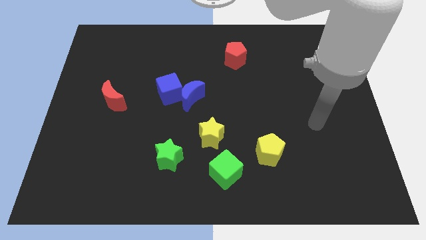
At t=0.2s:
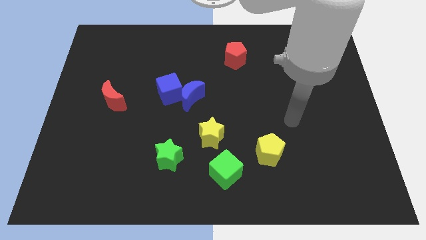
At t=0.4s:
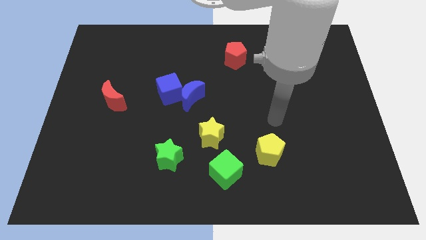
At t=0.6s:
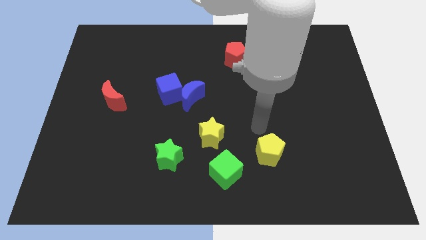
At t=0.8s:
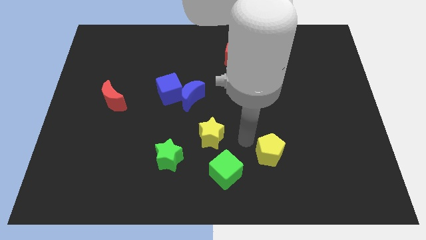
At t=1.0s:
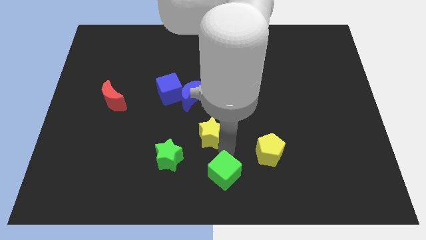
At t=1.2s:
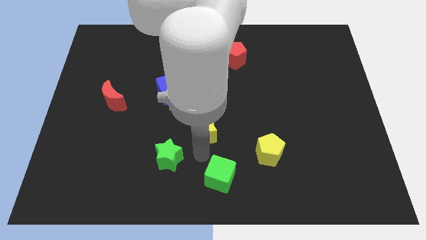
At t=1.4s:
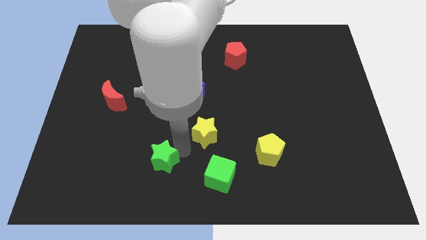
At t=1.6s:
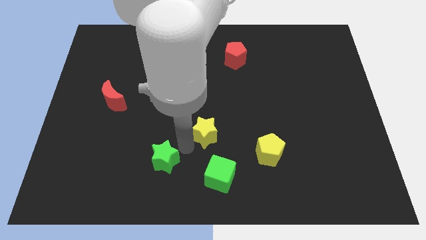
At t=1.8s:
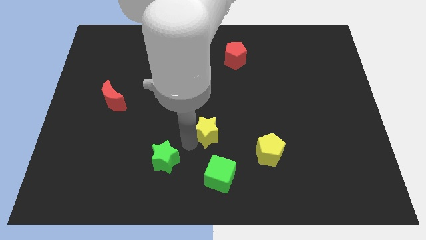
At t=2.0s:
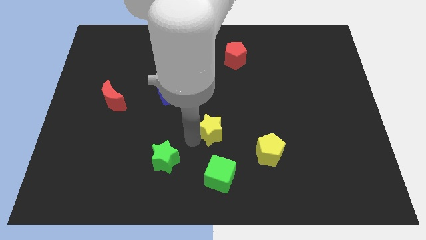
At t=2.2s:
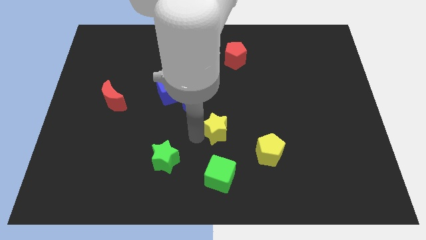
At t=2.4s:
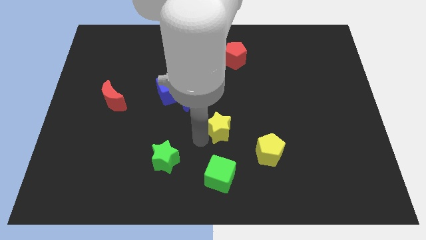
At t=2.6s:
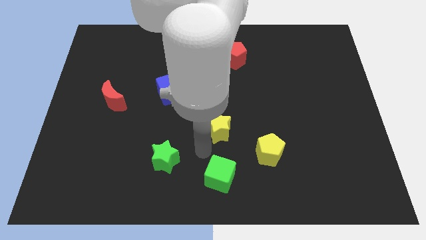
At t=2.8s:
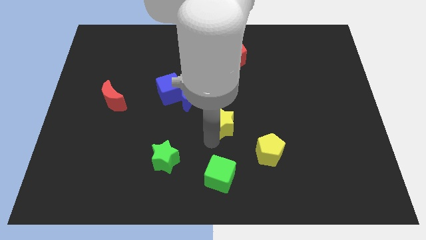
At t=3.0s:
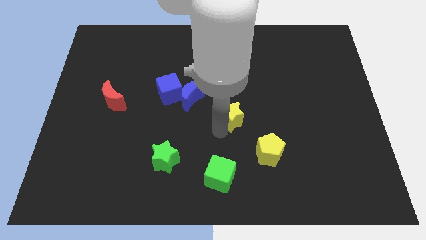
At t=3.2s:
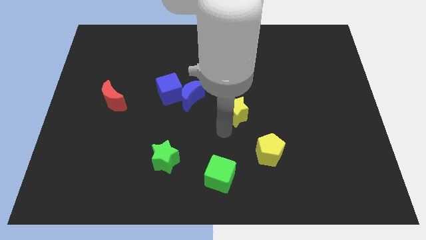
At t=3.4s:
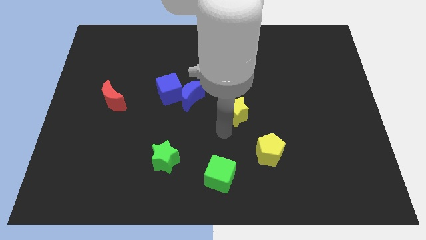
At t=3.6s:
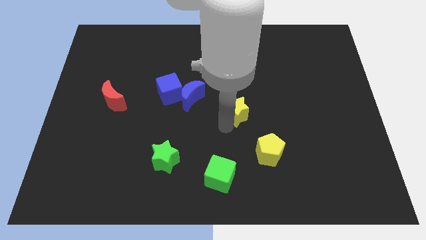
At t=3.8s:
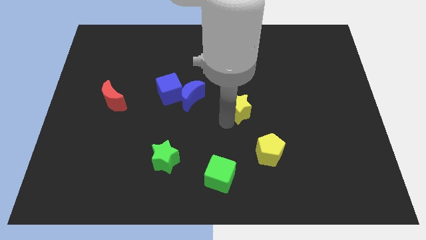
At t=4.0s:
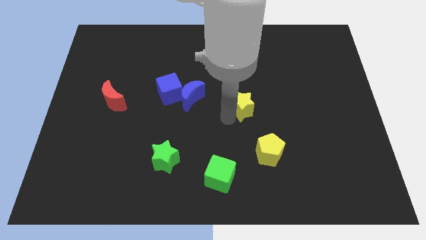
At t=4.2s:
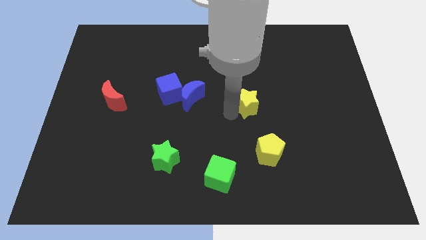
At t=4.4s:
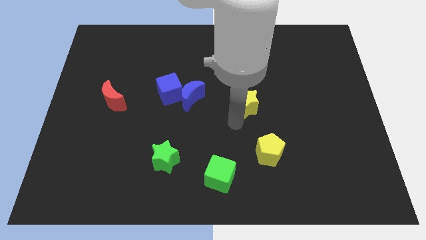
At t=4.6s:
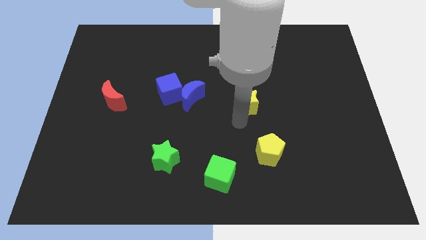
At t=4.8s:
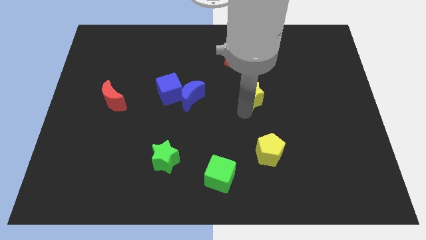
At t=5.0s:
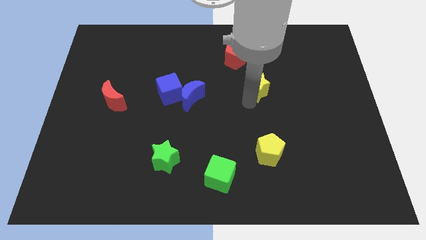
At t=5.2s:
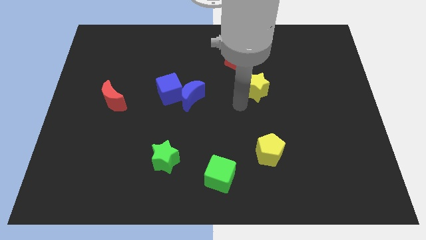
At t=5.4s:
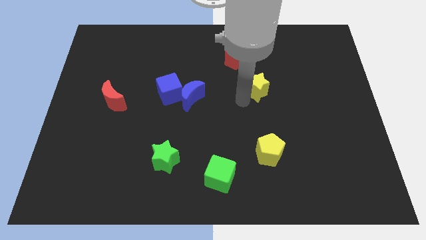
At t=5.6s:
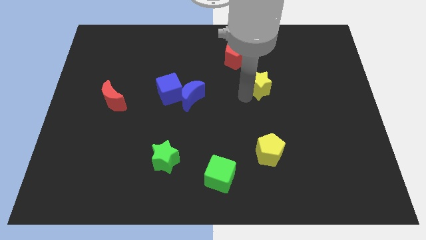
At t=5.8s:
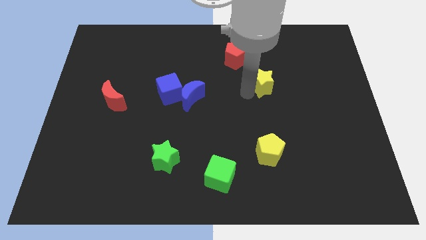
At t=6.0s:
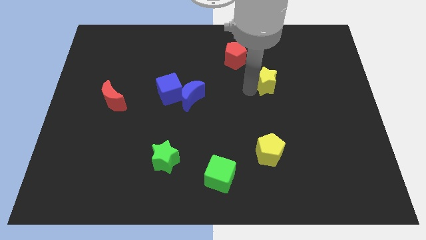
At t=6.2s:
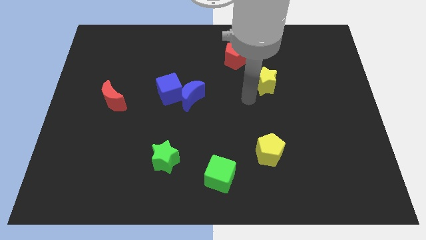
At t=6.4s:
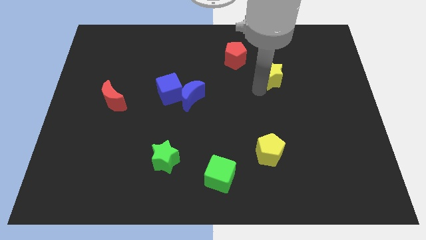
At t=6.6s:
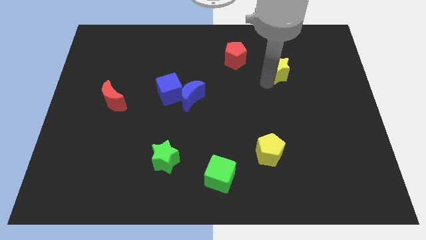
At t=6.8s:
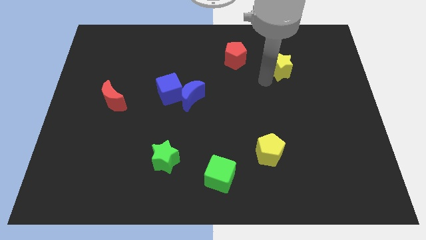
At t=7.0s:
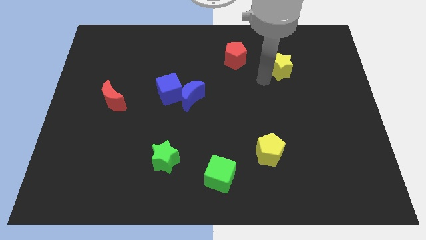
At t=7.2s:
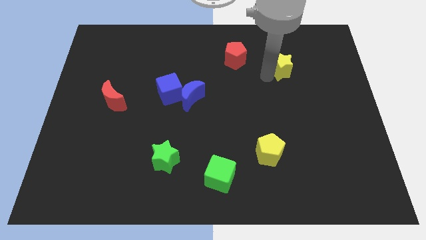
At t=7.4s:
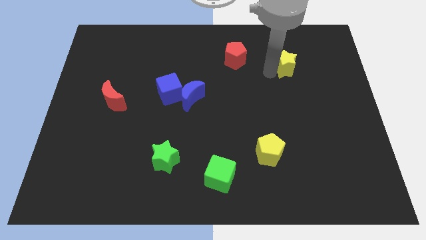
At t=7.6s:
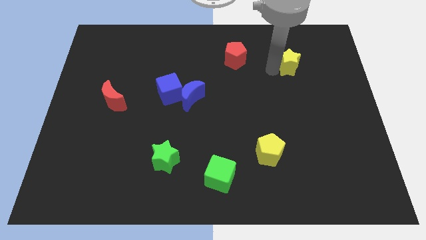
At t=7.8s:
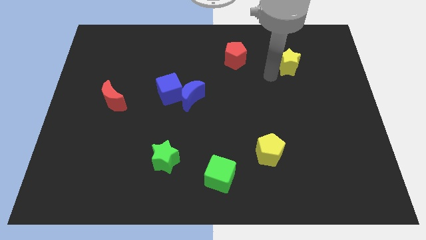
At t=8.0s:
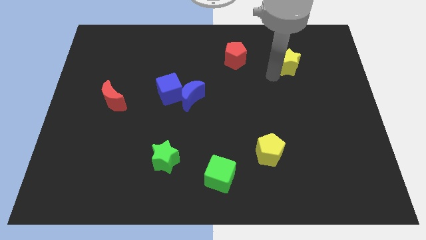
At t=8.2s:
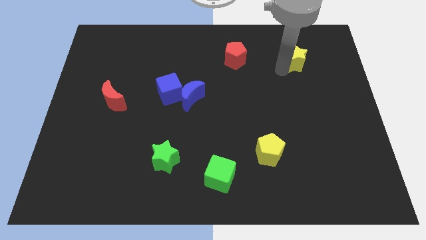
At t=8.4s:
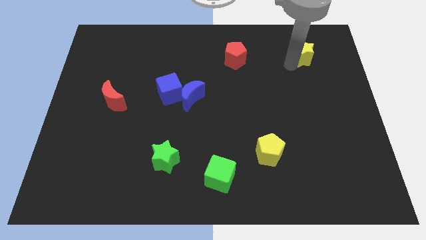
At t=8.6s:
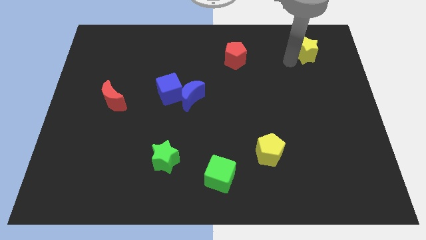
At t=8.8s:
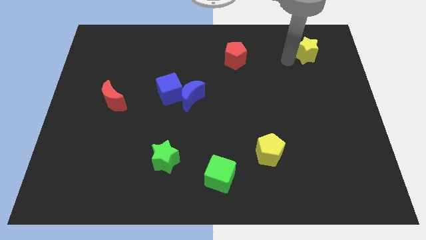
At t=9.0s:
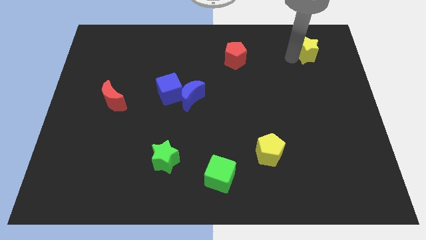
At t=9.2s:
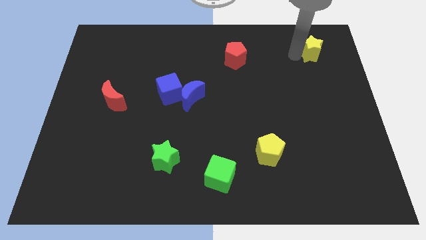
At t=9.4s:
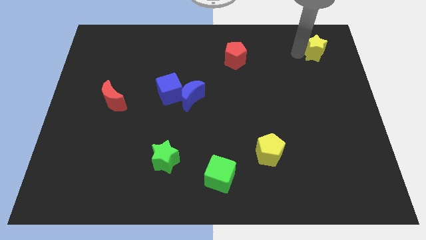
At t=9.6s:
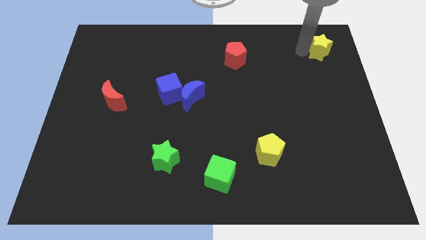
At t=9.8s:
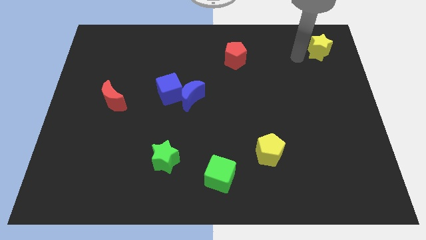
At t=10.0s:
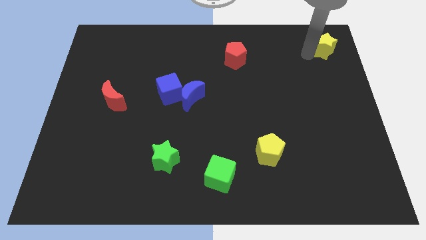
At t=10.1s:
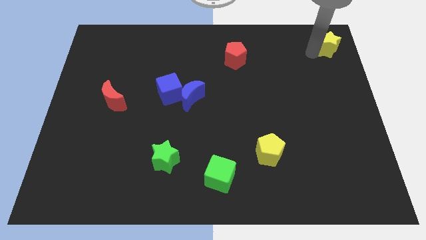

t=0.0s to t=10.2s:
move the yellow star to the top right of the board

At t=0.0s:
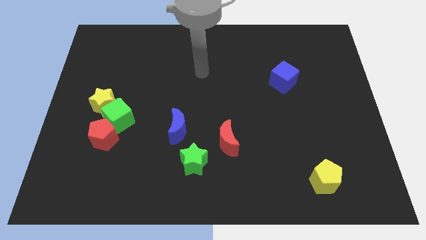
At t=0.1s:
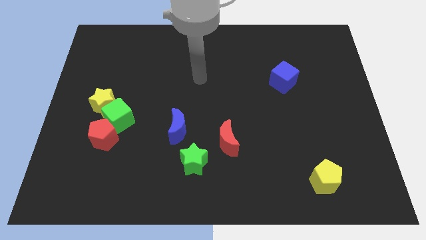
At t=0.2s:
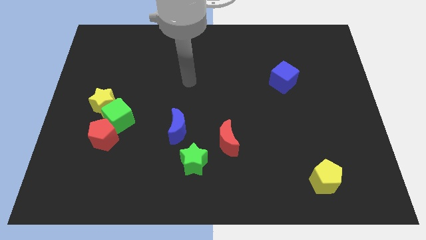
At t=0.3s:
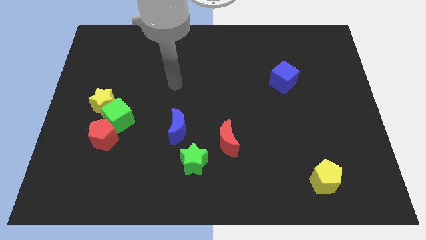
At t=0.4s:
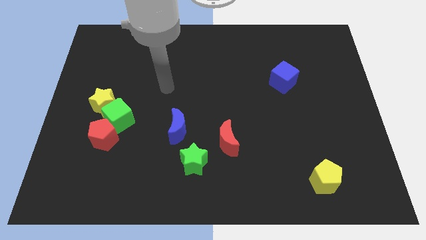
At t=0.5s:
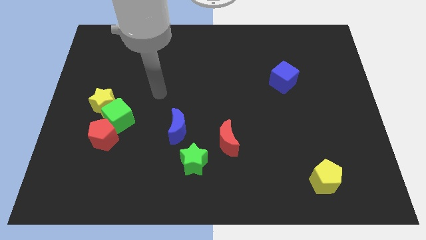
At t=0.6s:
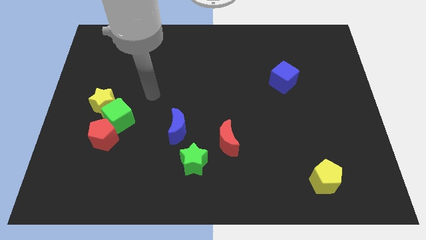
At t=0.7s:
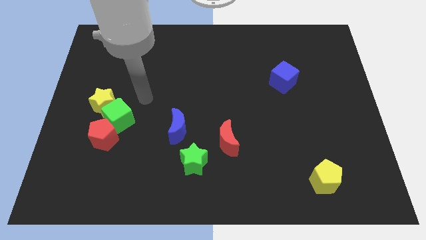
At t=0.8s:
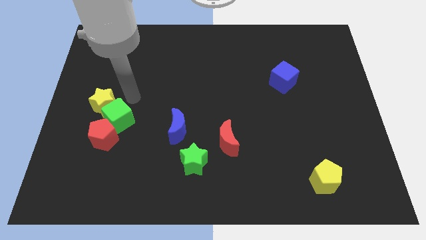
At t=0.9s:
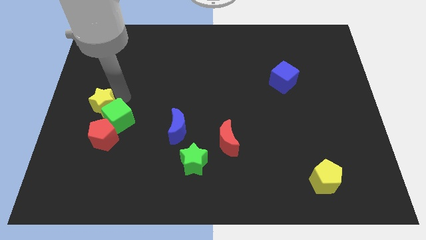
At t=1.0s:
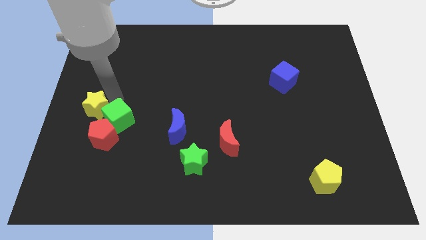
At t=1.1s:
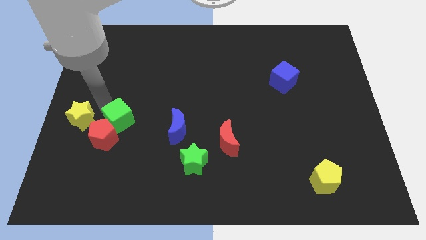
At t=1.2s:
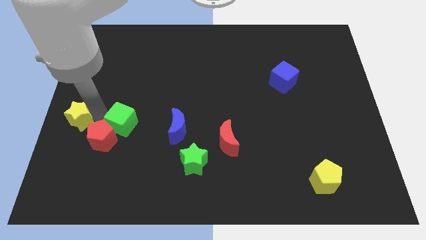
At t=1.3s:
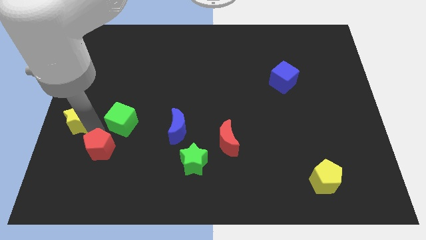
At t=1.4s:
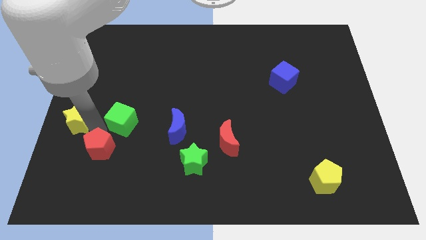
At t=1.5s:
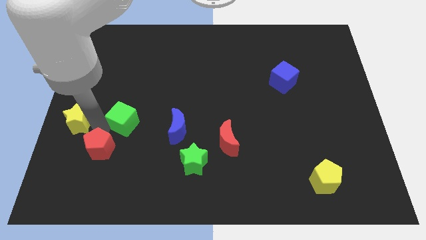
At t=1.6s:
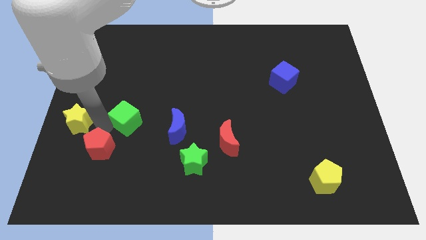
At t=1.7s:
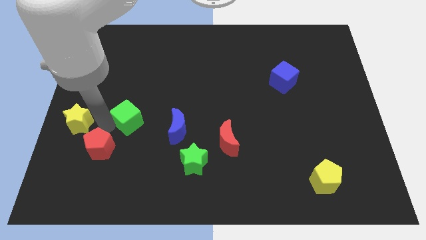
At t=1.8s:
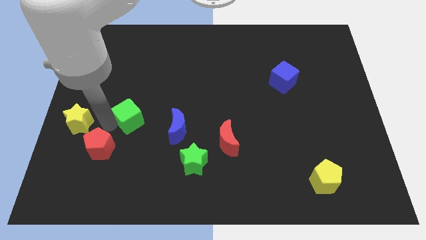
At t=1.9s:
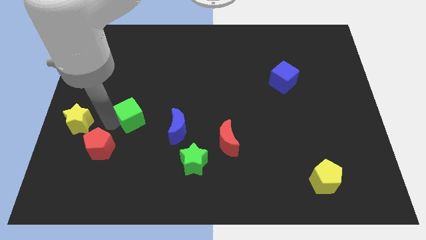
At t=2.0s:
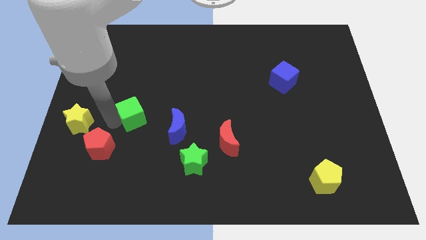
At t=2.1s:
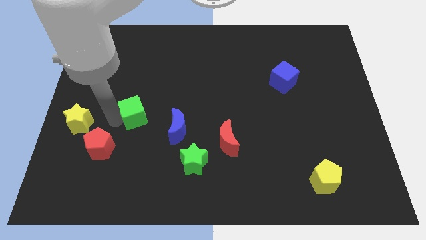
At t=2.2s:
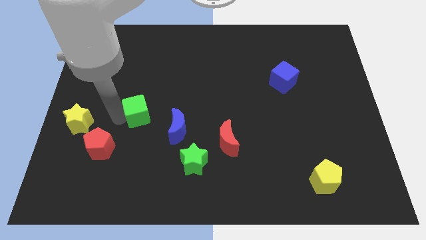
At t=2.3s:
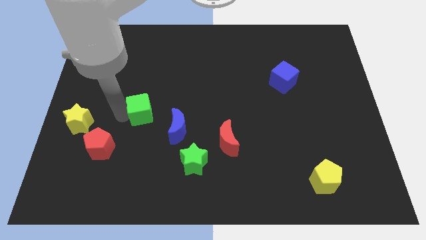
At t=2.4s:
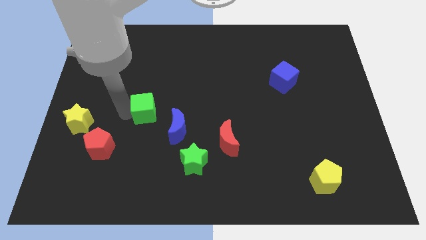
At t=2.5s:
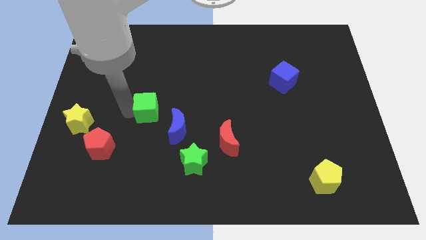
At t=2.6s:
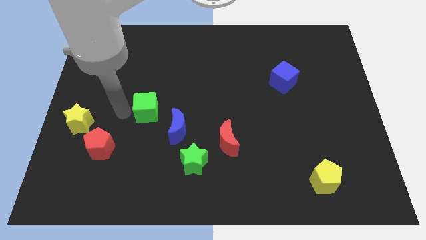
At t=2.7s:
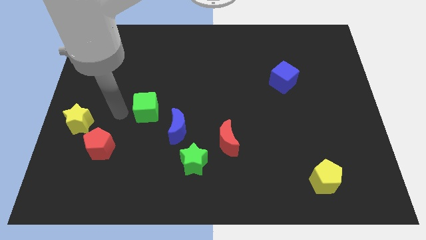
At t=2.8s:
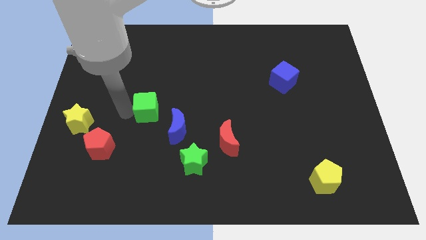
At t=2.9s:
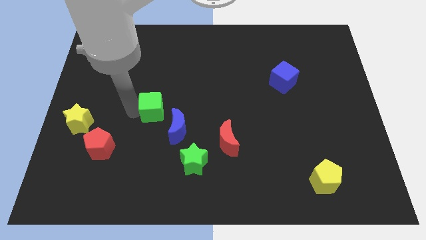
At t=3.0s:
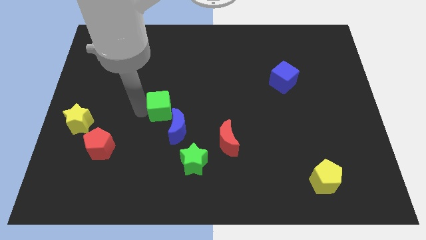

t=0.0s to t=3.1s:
push the green cube to the middle
